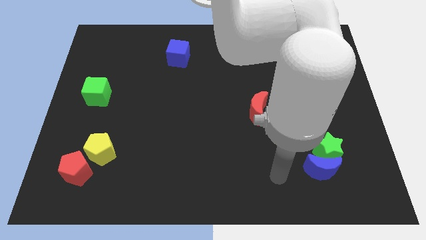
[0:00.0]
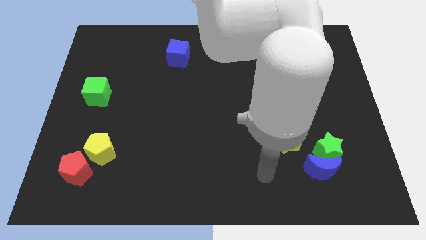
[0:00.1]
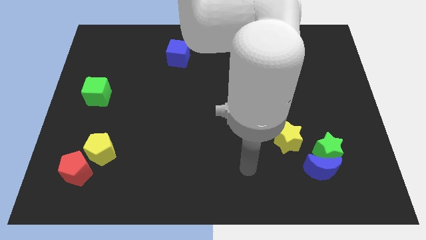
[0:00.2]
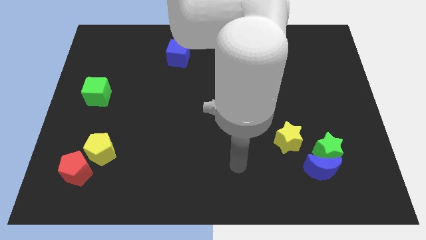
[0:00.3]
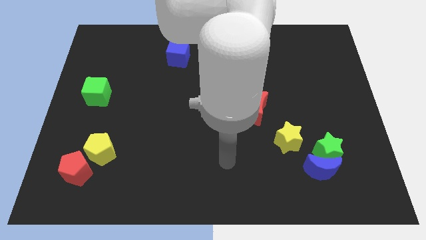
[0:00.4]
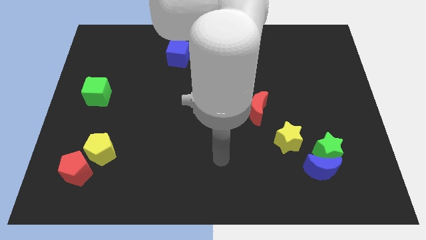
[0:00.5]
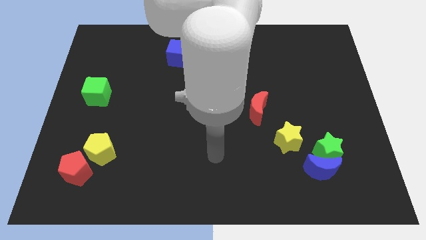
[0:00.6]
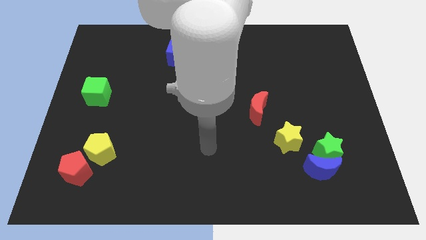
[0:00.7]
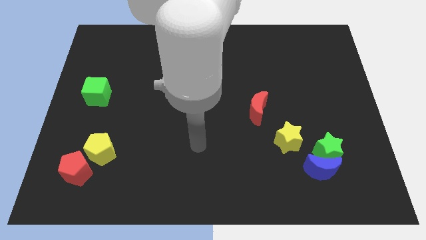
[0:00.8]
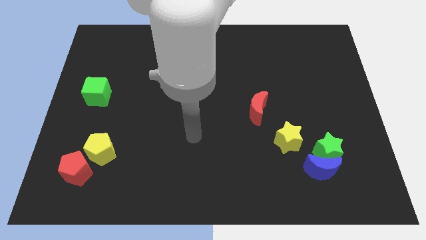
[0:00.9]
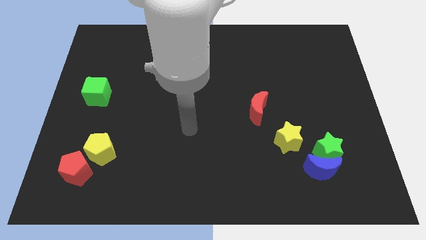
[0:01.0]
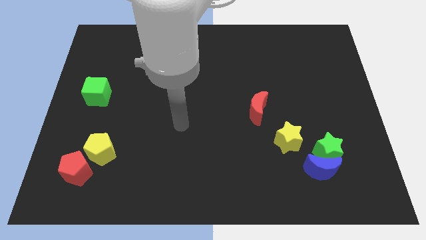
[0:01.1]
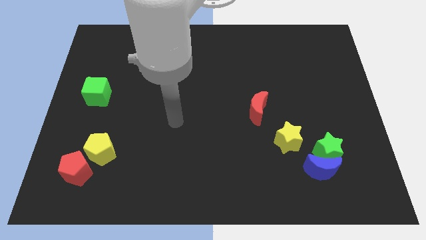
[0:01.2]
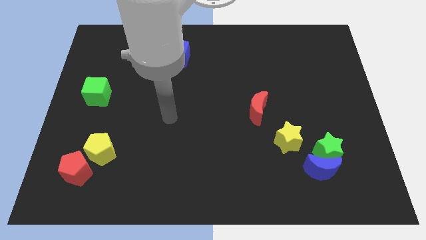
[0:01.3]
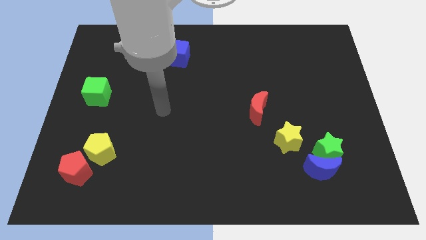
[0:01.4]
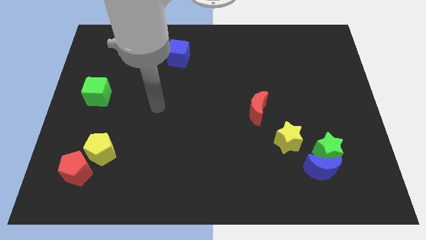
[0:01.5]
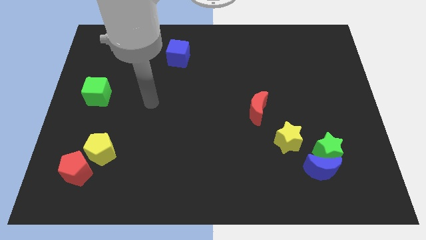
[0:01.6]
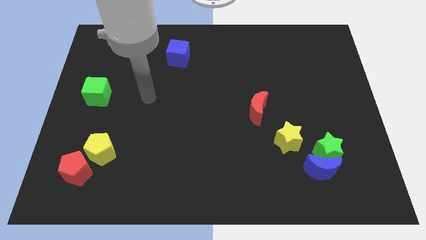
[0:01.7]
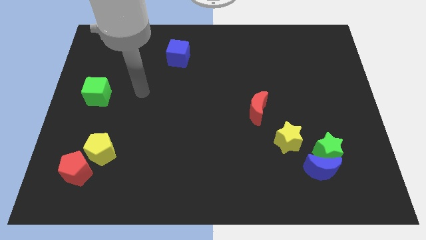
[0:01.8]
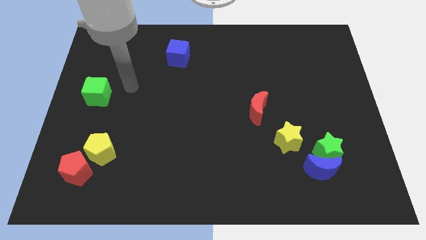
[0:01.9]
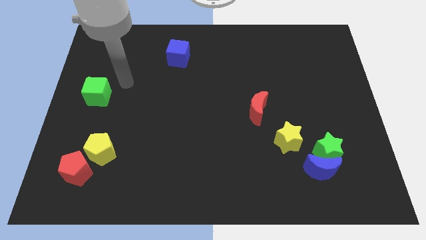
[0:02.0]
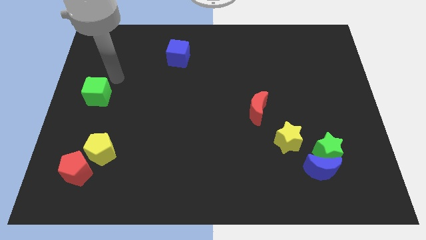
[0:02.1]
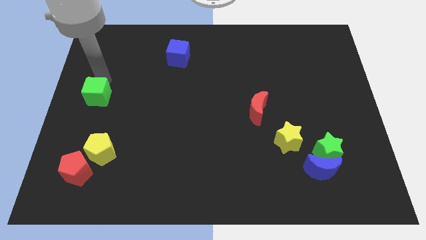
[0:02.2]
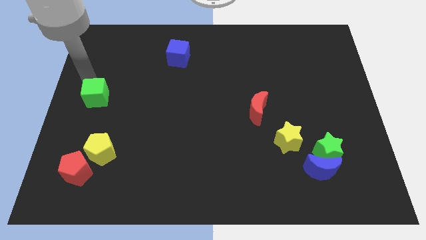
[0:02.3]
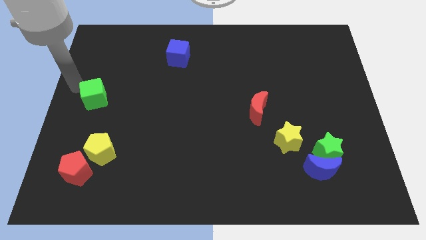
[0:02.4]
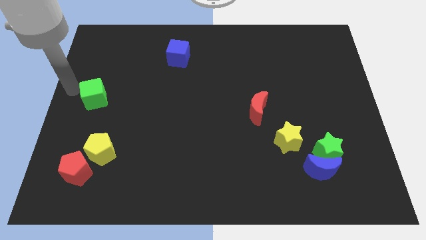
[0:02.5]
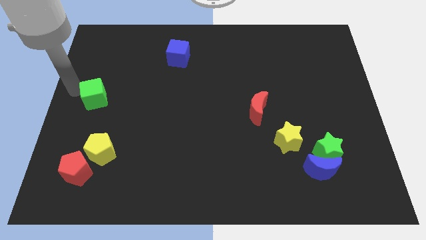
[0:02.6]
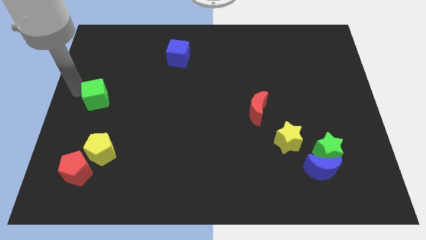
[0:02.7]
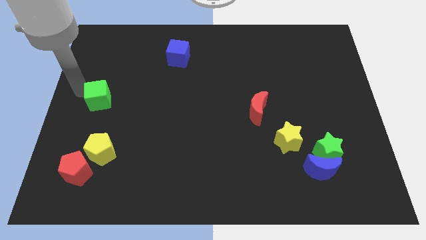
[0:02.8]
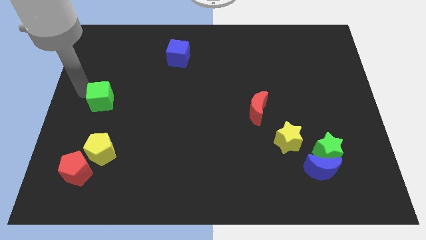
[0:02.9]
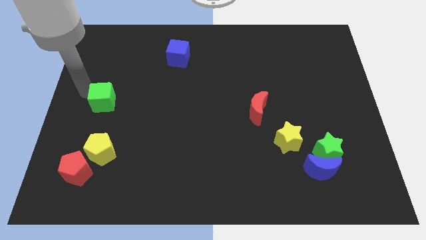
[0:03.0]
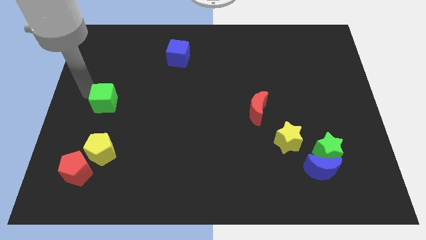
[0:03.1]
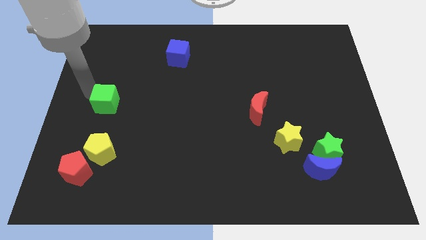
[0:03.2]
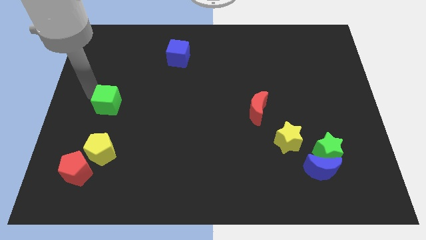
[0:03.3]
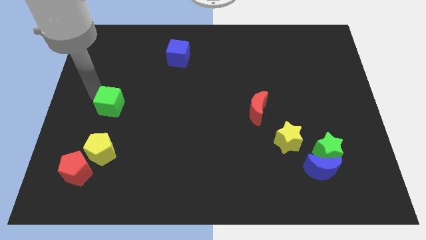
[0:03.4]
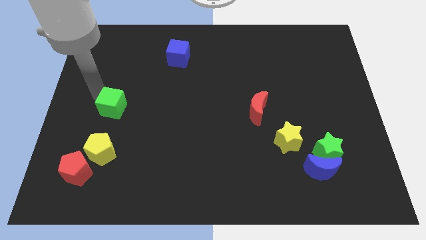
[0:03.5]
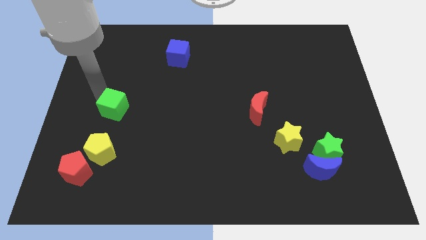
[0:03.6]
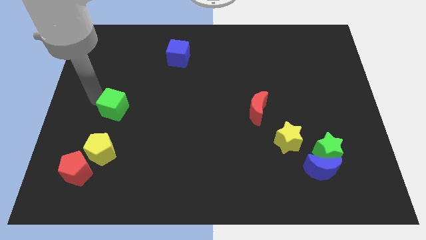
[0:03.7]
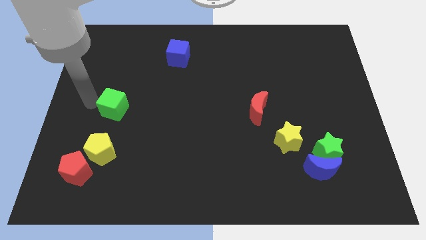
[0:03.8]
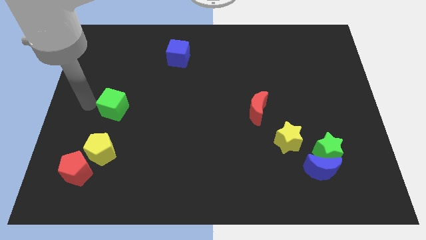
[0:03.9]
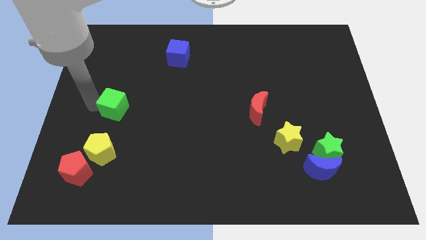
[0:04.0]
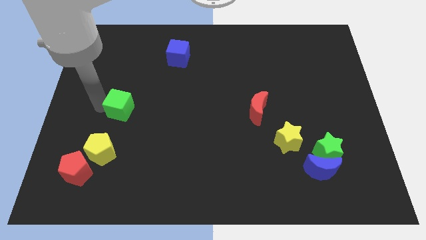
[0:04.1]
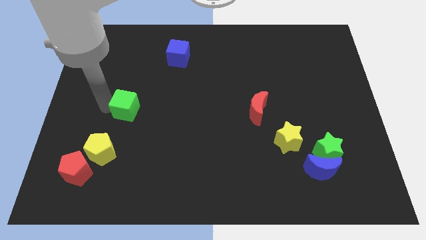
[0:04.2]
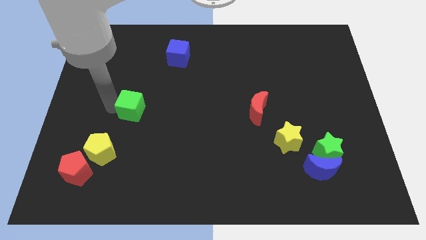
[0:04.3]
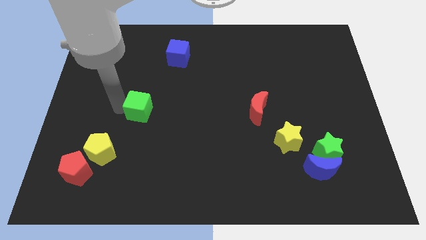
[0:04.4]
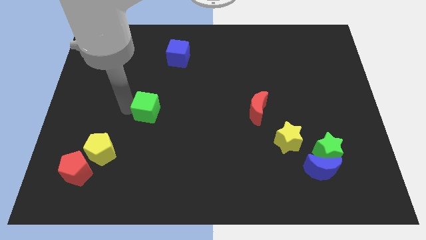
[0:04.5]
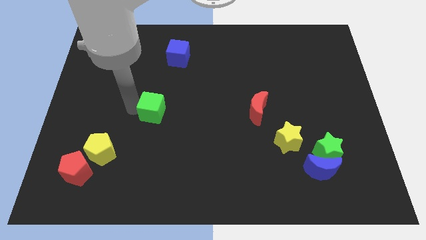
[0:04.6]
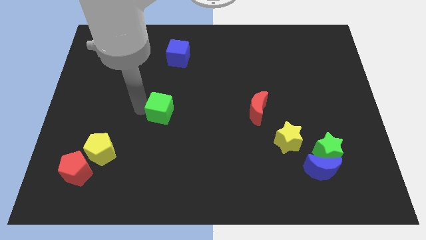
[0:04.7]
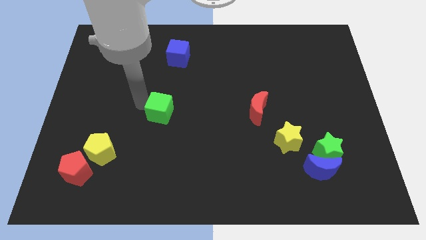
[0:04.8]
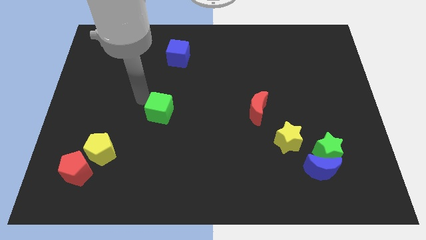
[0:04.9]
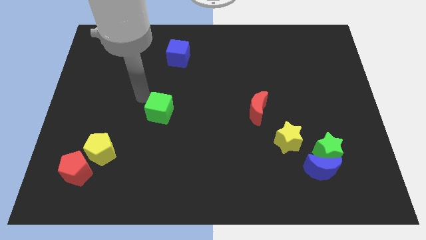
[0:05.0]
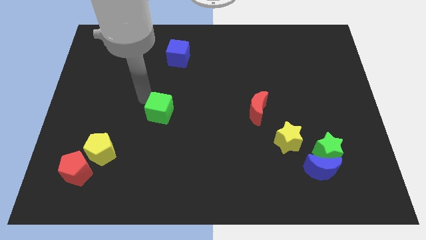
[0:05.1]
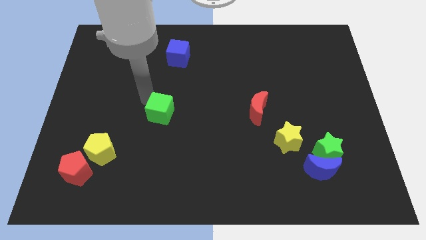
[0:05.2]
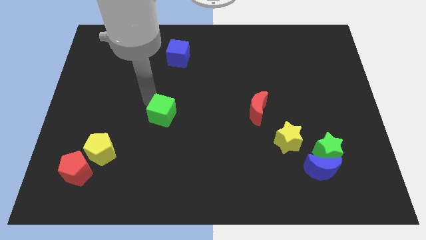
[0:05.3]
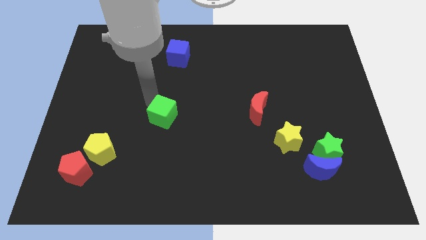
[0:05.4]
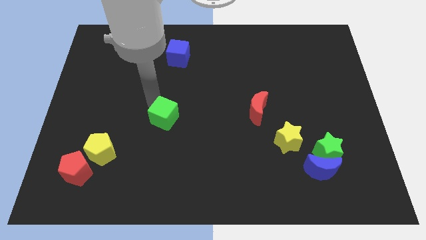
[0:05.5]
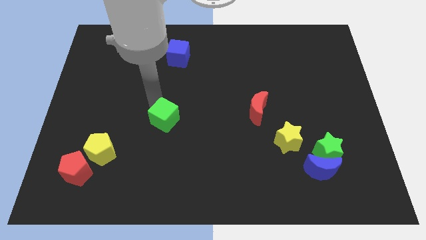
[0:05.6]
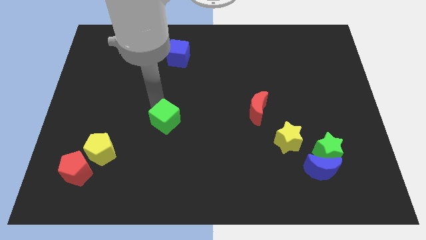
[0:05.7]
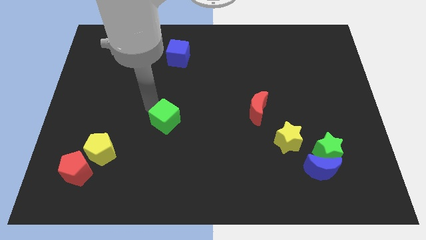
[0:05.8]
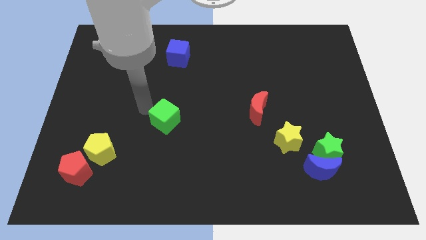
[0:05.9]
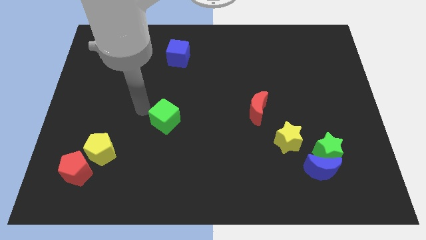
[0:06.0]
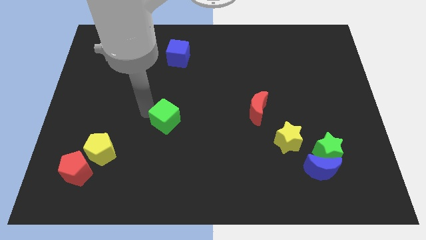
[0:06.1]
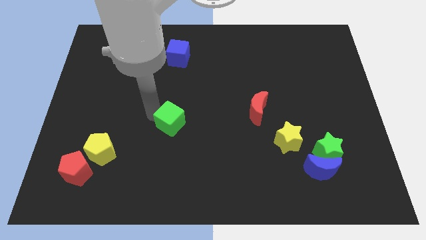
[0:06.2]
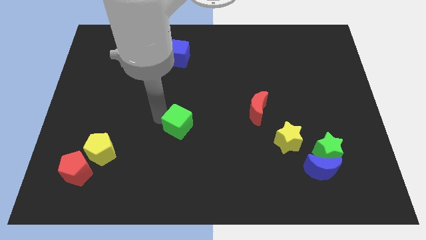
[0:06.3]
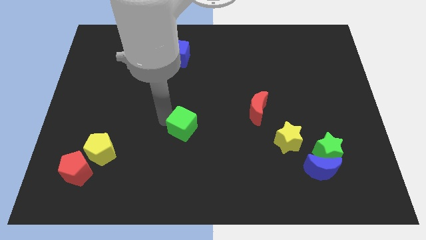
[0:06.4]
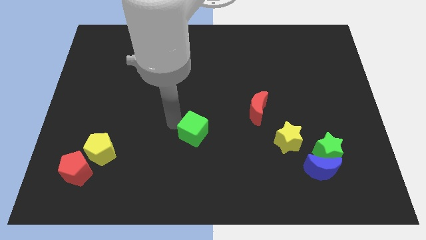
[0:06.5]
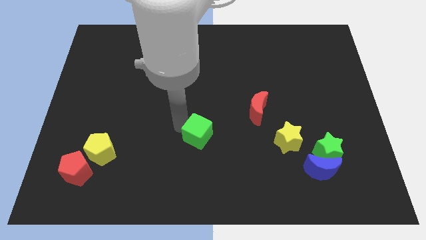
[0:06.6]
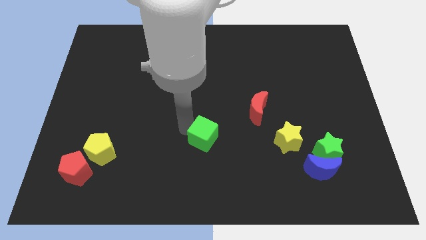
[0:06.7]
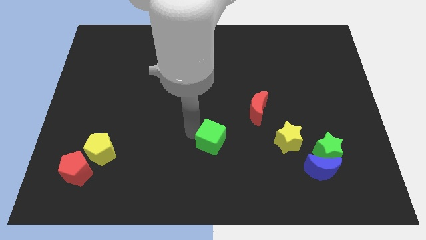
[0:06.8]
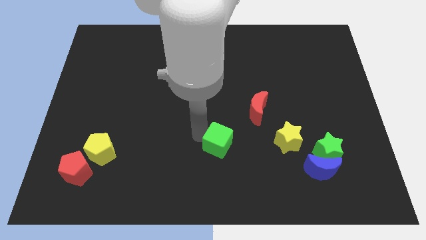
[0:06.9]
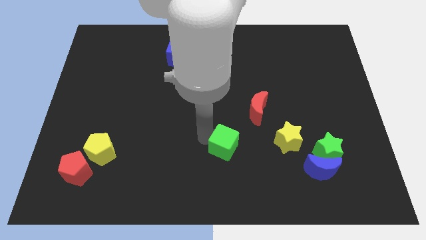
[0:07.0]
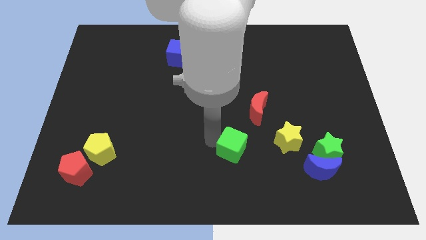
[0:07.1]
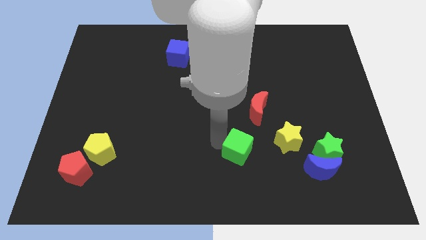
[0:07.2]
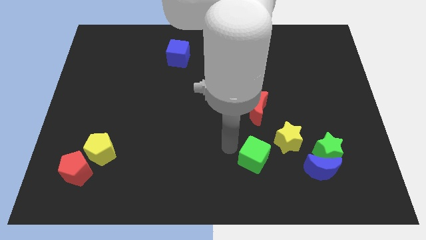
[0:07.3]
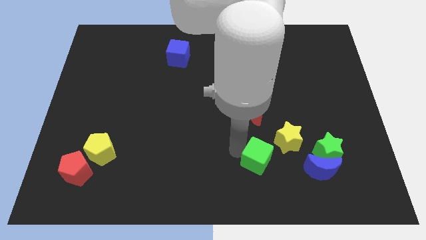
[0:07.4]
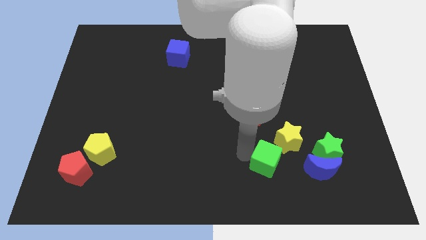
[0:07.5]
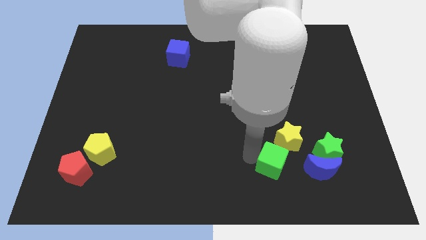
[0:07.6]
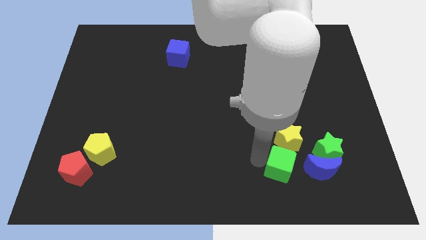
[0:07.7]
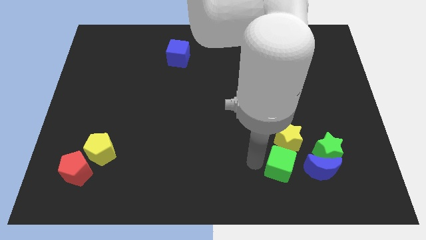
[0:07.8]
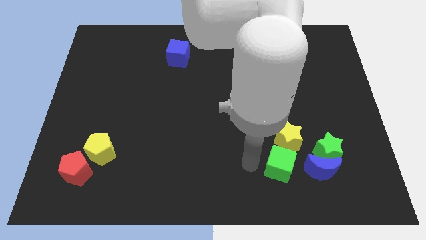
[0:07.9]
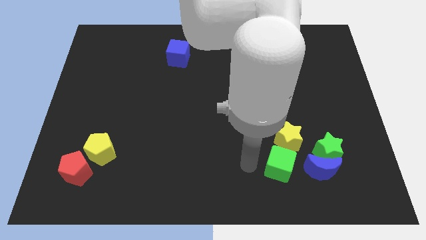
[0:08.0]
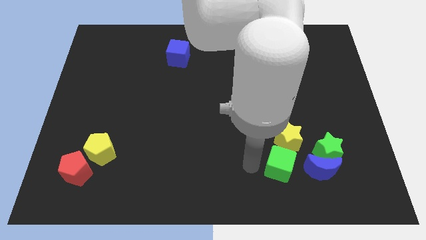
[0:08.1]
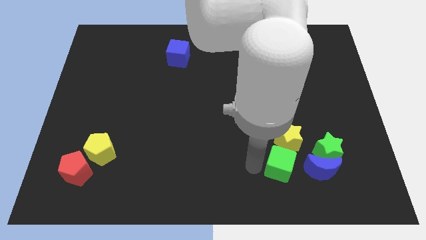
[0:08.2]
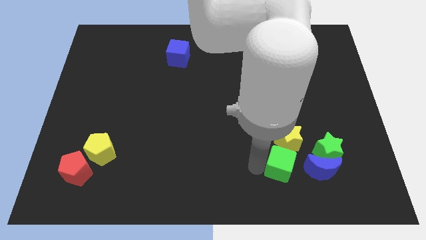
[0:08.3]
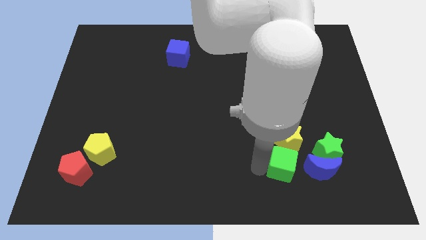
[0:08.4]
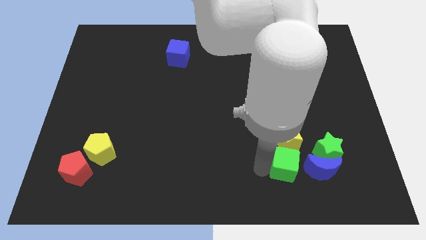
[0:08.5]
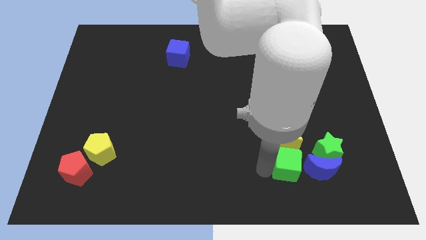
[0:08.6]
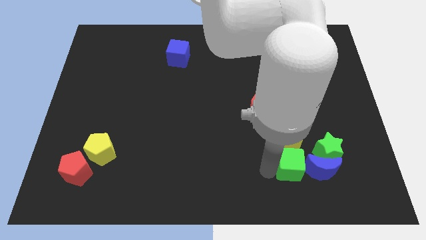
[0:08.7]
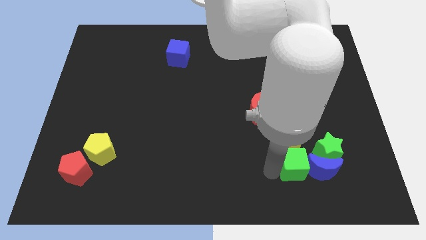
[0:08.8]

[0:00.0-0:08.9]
put the green cube close to the blue moon
